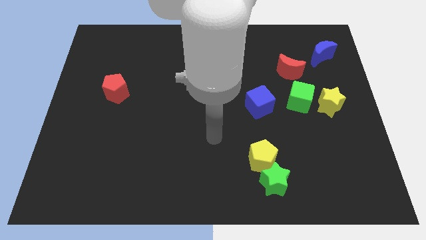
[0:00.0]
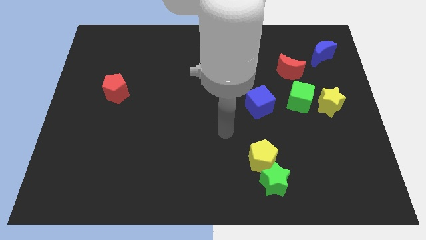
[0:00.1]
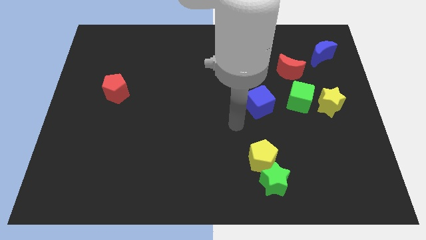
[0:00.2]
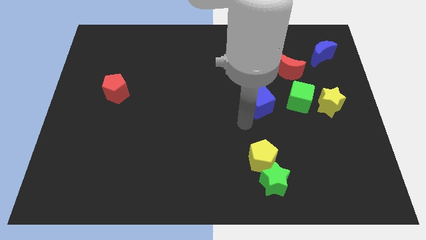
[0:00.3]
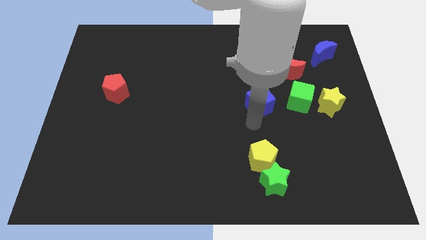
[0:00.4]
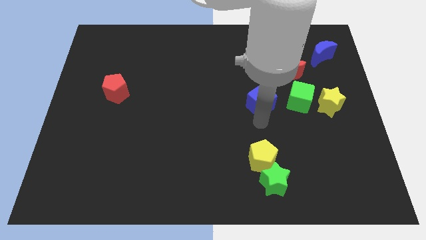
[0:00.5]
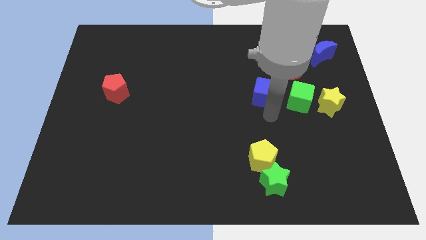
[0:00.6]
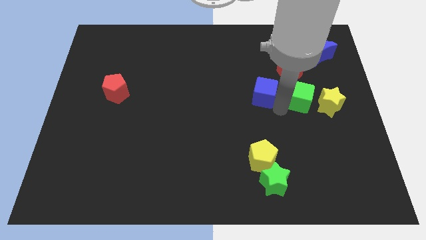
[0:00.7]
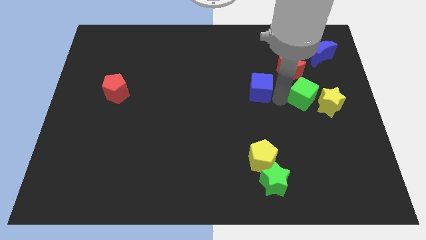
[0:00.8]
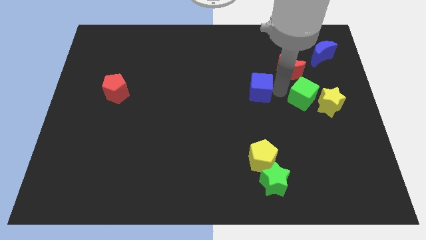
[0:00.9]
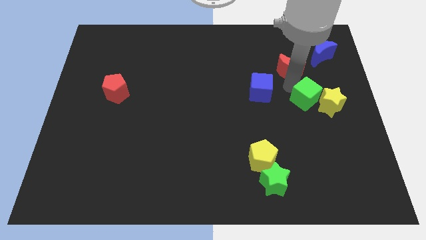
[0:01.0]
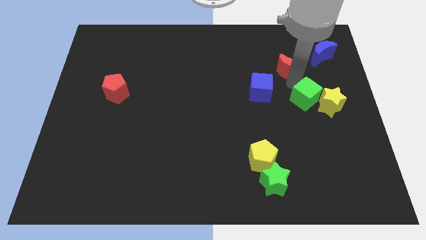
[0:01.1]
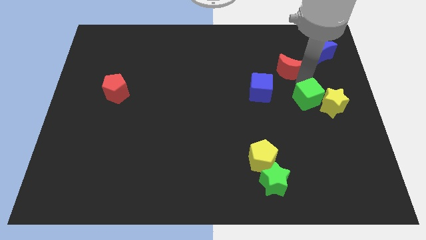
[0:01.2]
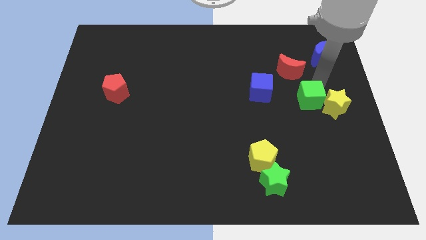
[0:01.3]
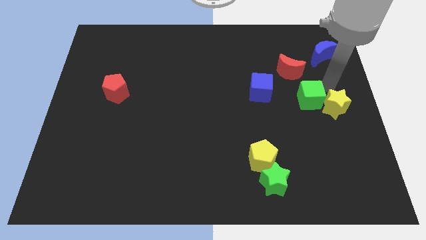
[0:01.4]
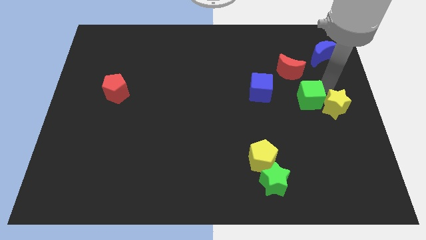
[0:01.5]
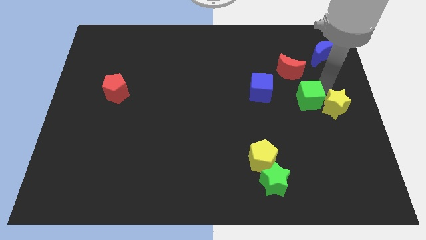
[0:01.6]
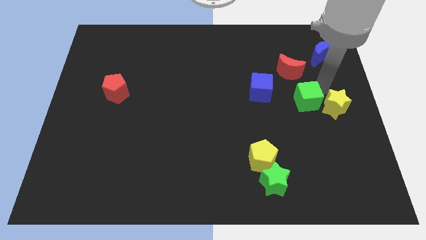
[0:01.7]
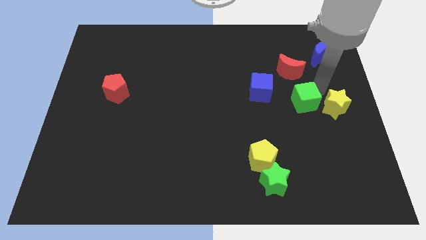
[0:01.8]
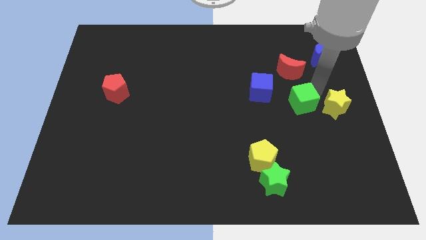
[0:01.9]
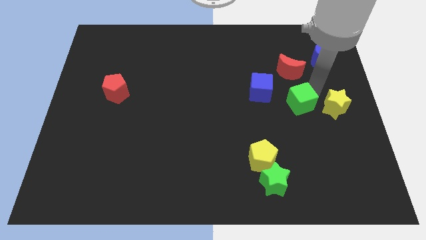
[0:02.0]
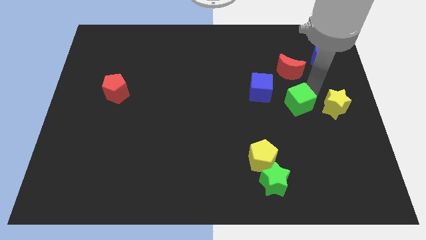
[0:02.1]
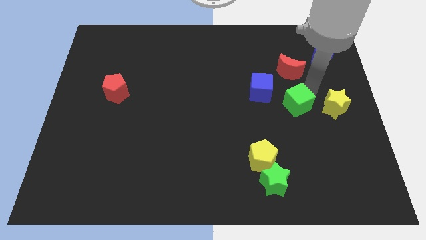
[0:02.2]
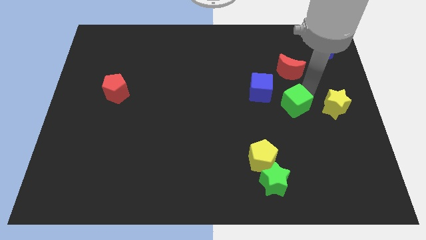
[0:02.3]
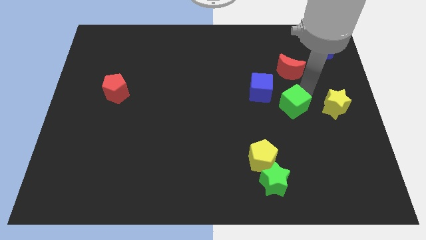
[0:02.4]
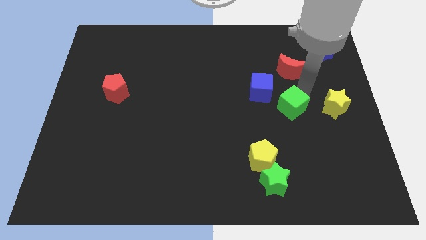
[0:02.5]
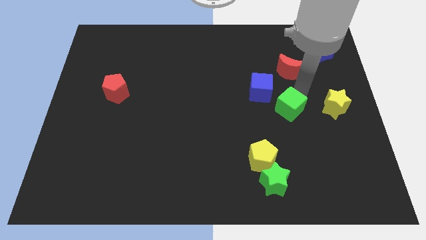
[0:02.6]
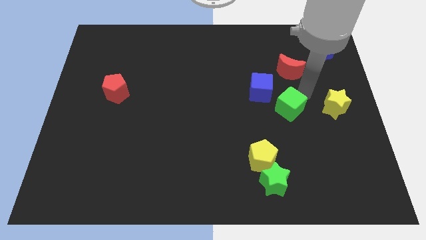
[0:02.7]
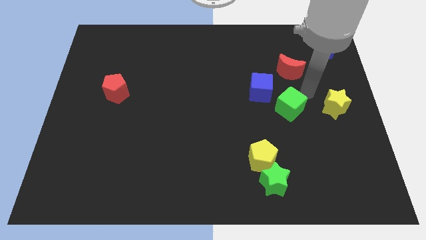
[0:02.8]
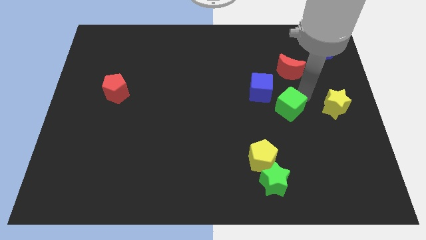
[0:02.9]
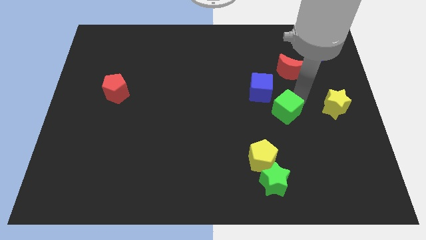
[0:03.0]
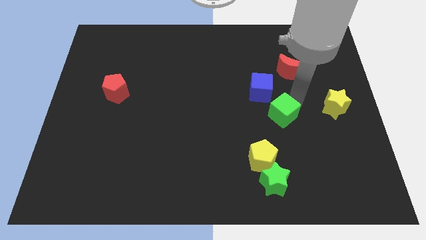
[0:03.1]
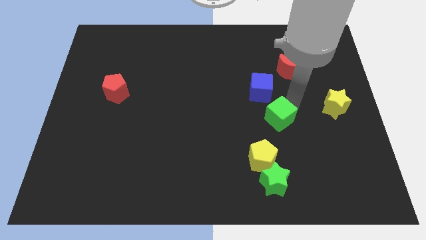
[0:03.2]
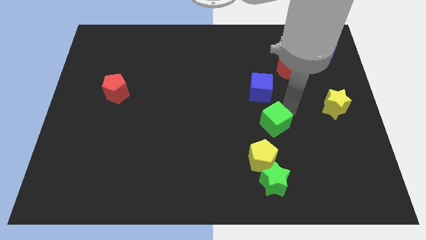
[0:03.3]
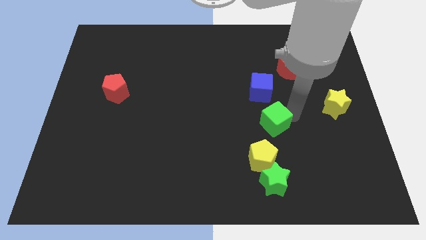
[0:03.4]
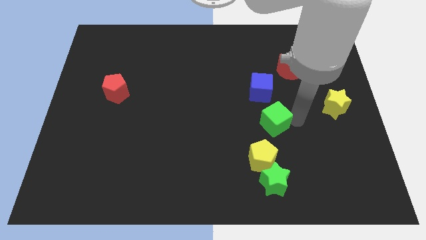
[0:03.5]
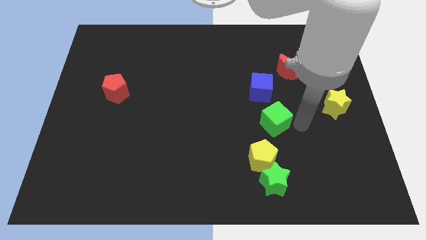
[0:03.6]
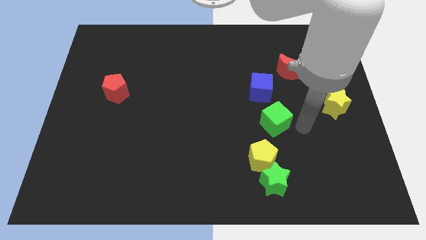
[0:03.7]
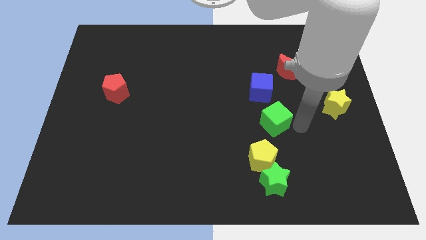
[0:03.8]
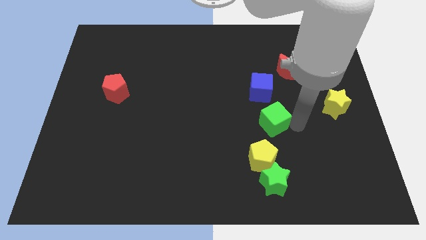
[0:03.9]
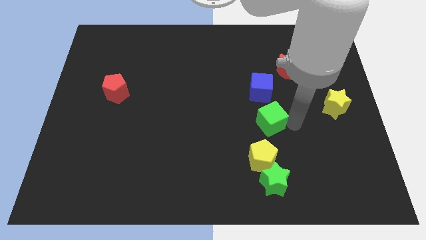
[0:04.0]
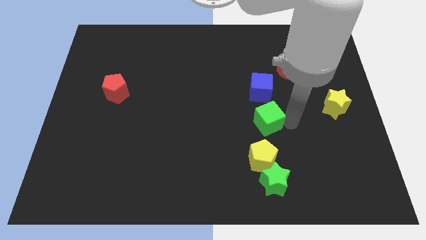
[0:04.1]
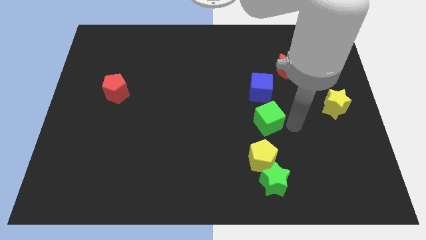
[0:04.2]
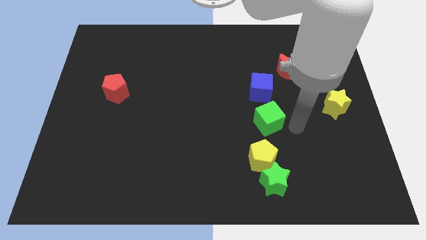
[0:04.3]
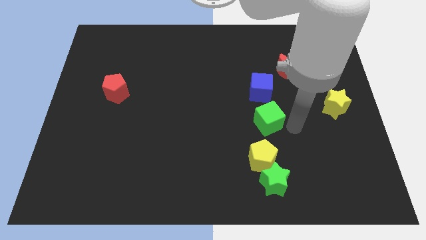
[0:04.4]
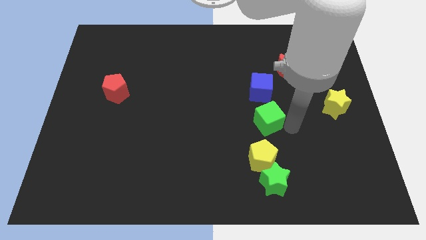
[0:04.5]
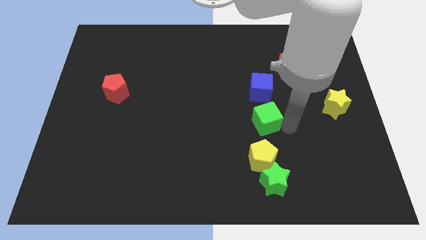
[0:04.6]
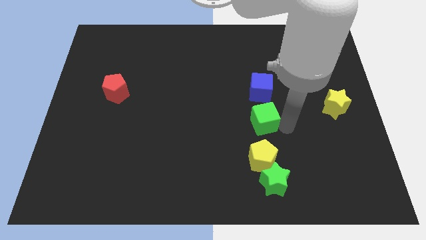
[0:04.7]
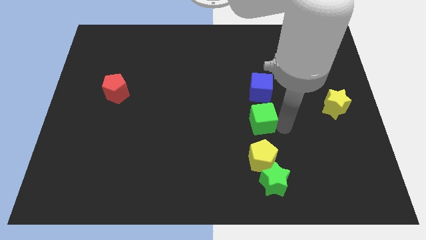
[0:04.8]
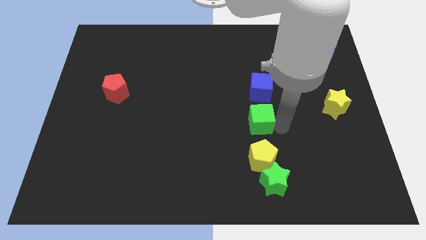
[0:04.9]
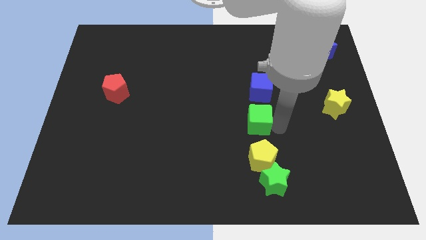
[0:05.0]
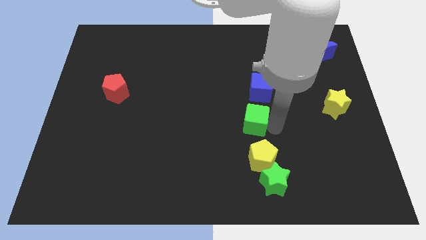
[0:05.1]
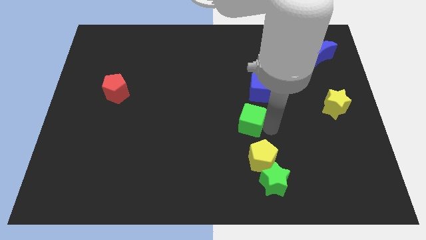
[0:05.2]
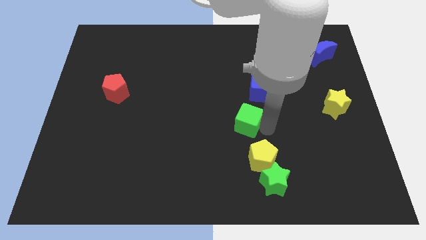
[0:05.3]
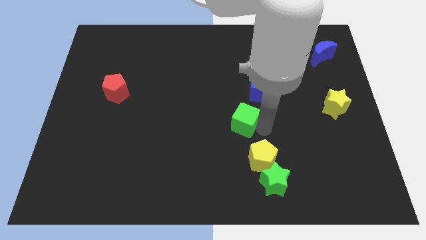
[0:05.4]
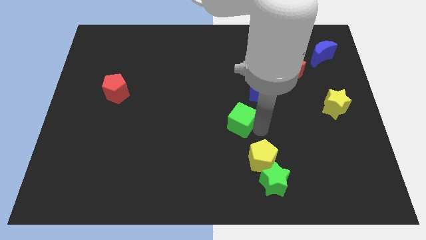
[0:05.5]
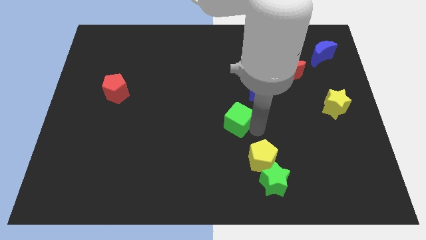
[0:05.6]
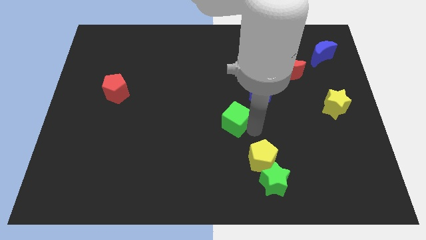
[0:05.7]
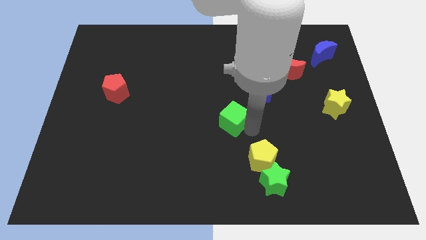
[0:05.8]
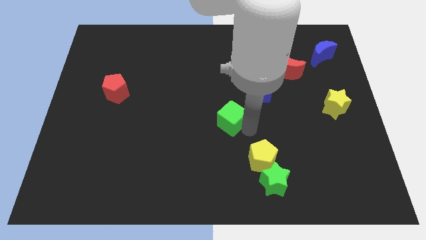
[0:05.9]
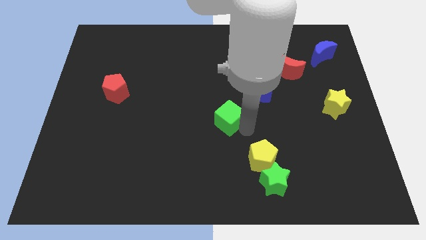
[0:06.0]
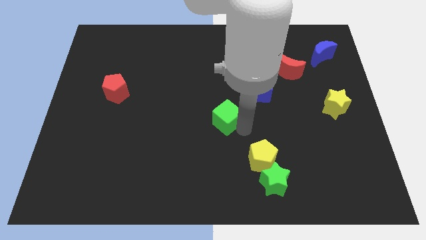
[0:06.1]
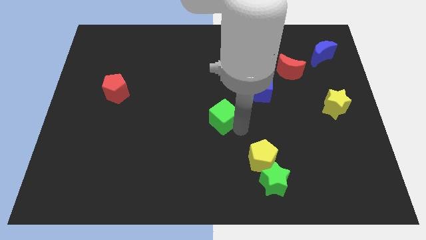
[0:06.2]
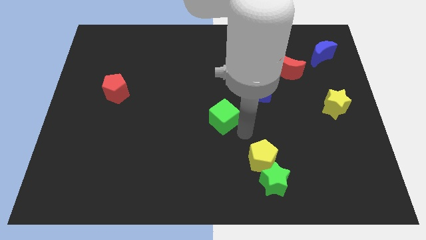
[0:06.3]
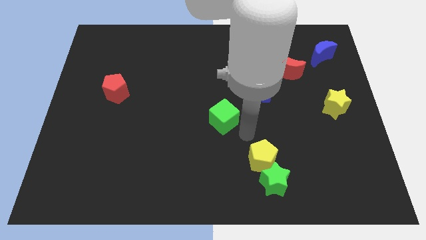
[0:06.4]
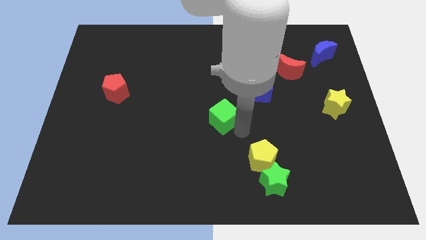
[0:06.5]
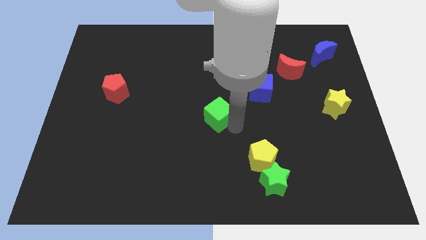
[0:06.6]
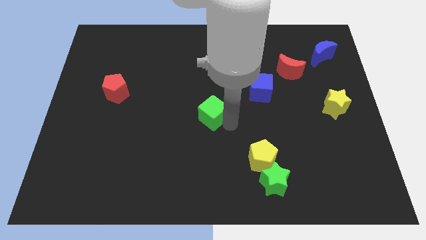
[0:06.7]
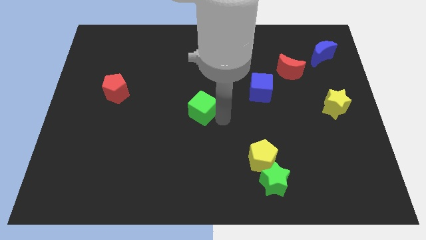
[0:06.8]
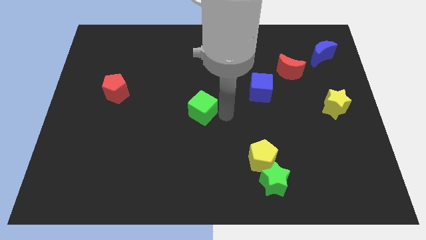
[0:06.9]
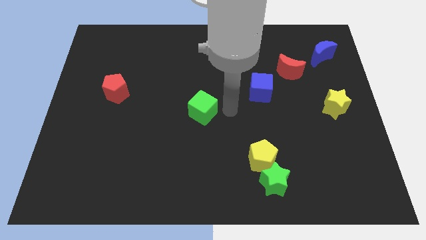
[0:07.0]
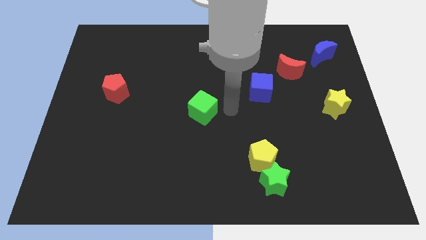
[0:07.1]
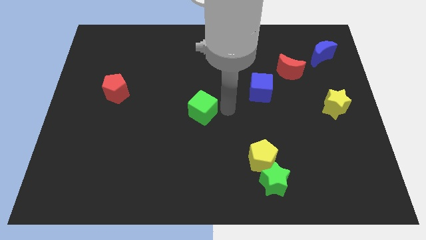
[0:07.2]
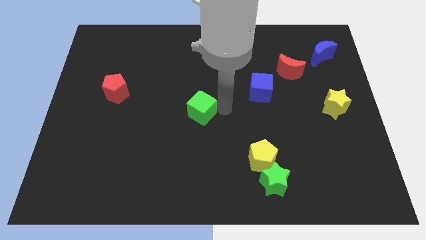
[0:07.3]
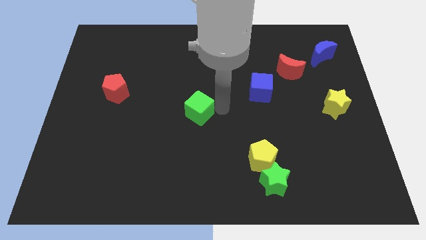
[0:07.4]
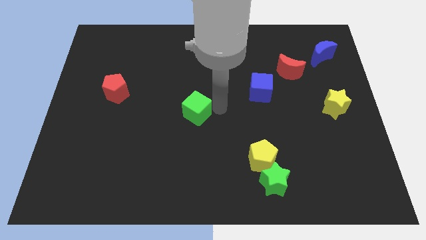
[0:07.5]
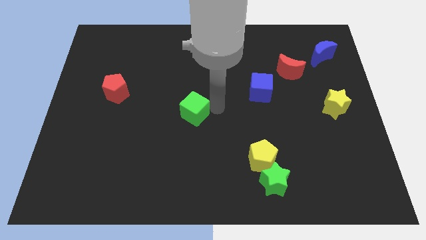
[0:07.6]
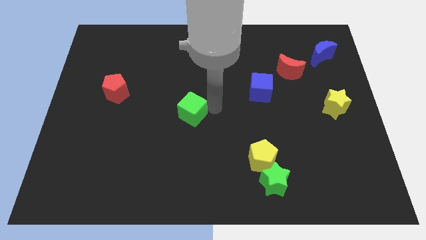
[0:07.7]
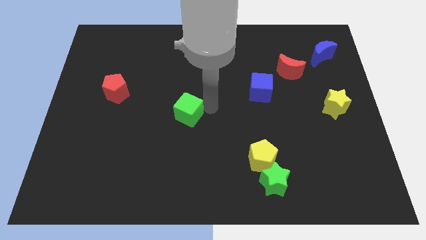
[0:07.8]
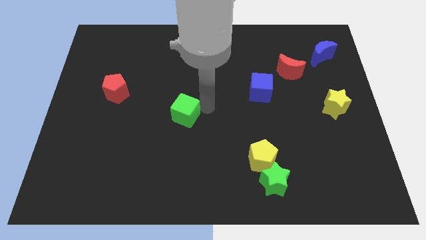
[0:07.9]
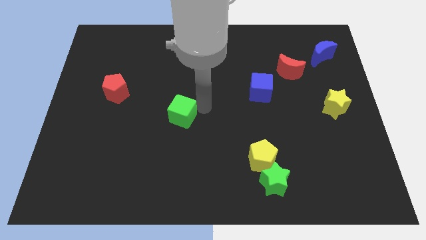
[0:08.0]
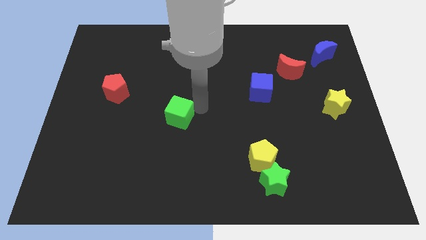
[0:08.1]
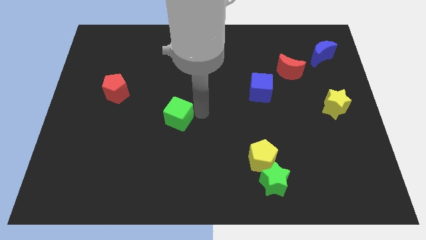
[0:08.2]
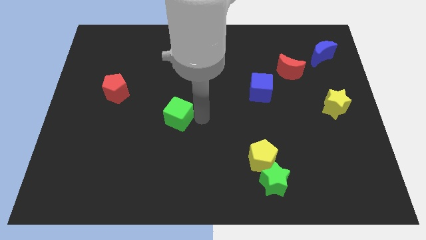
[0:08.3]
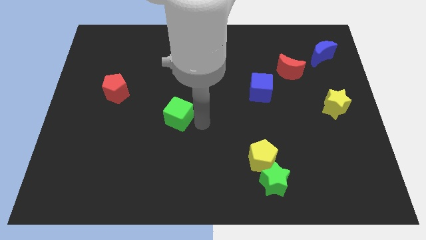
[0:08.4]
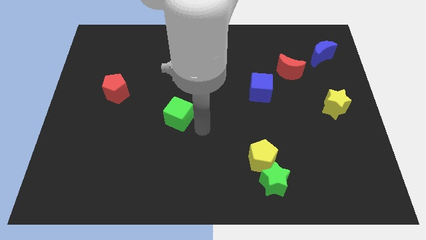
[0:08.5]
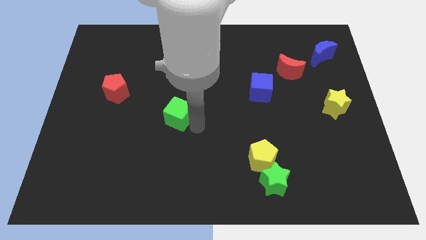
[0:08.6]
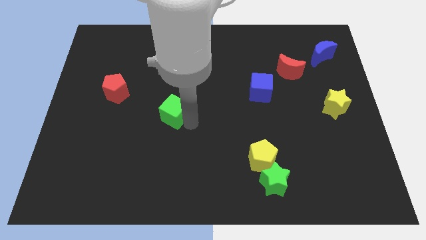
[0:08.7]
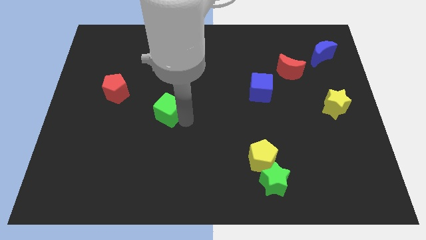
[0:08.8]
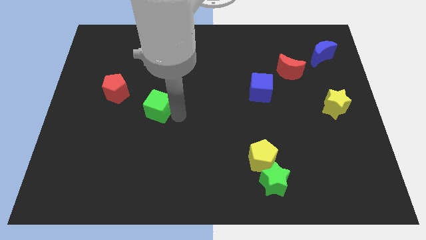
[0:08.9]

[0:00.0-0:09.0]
push the green cube to the bottom right of the red pentagon
